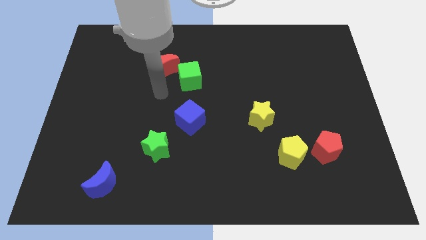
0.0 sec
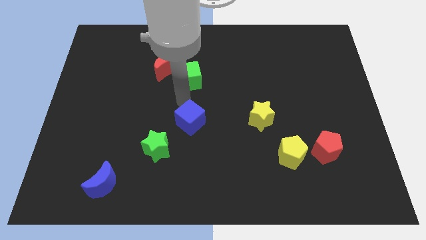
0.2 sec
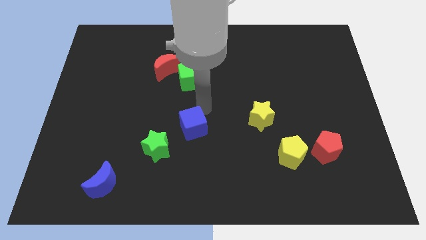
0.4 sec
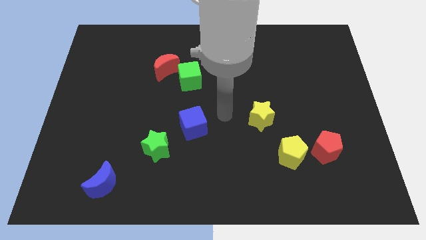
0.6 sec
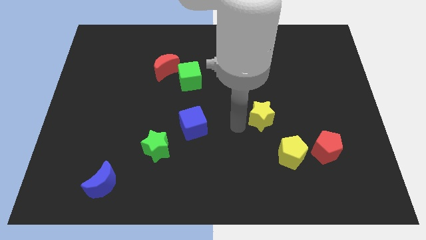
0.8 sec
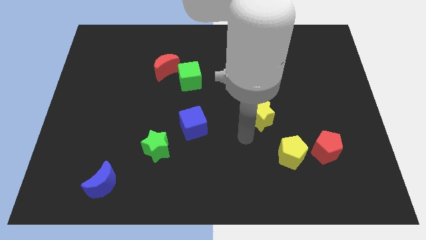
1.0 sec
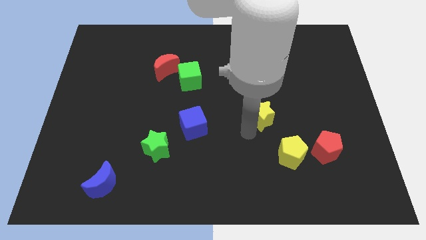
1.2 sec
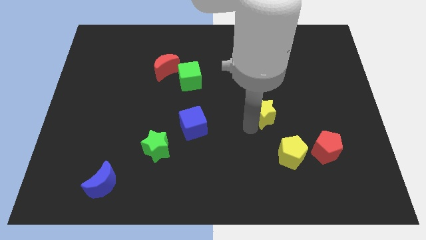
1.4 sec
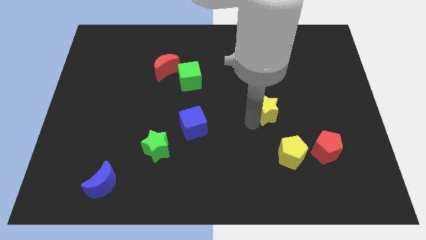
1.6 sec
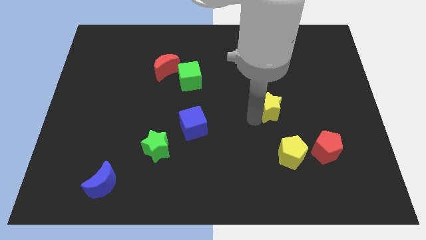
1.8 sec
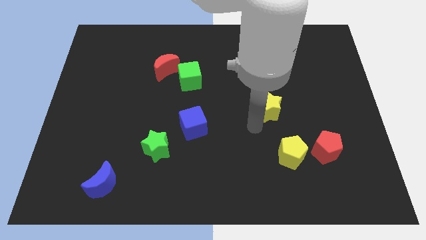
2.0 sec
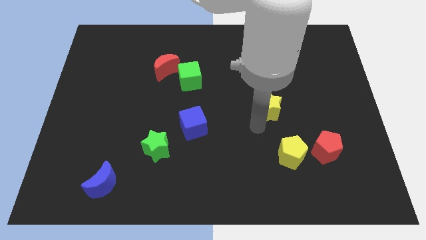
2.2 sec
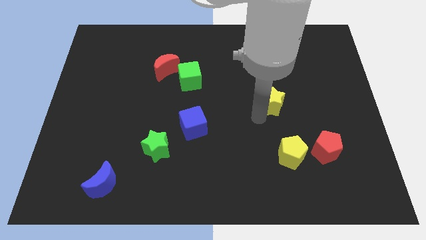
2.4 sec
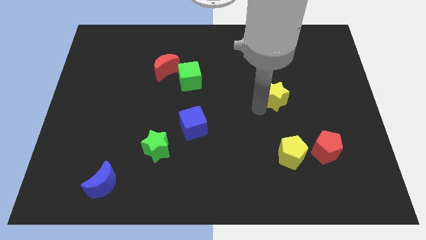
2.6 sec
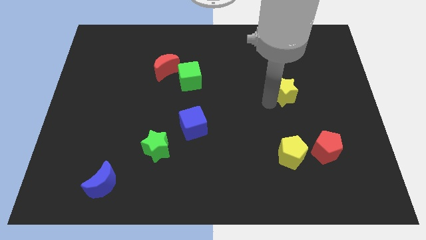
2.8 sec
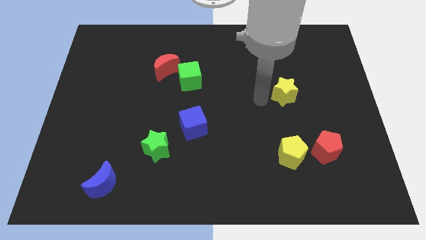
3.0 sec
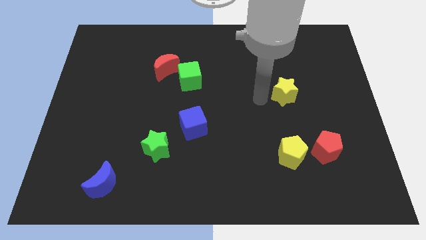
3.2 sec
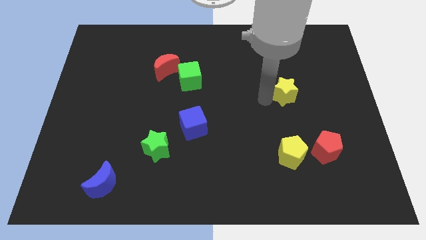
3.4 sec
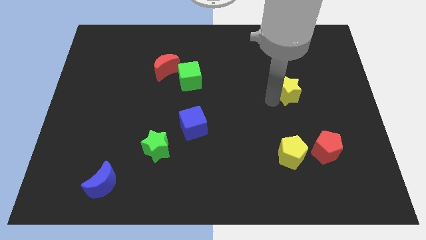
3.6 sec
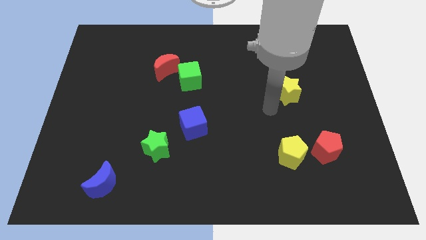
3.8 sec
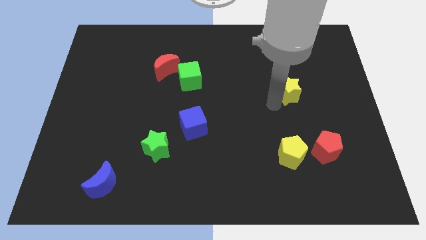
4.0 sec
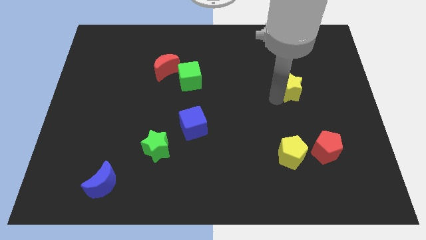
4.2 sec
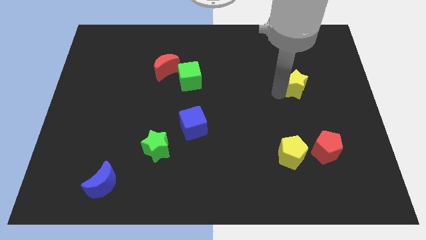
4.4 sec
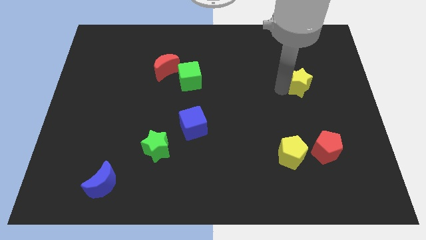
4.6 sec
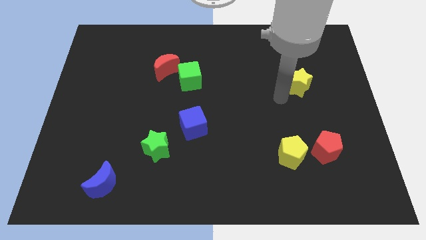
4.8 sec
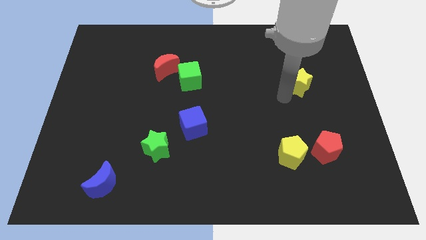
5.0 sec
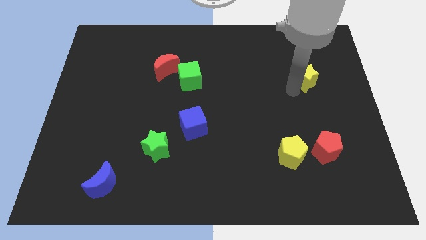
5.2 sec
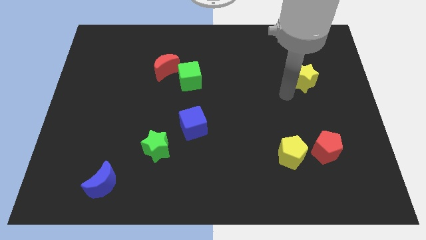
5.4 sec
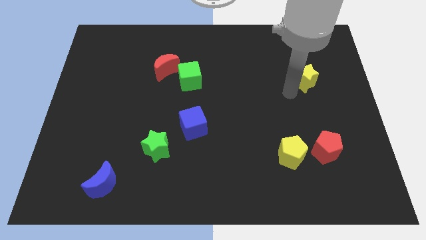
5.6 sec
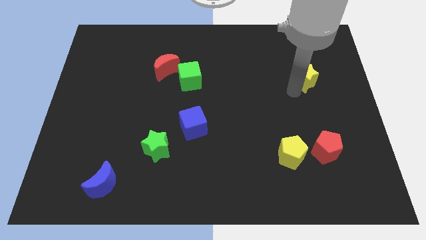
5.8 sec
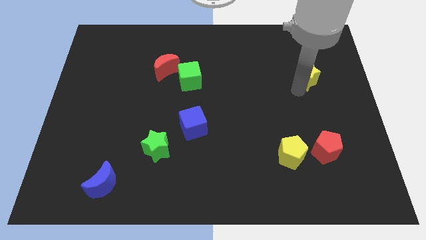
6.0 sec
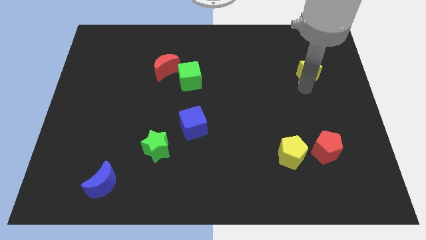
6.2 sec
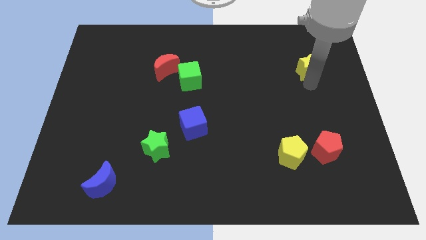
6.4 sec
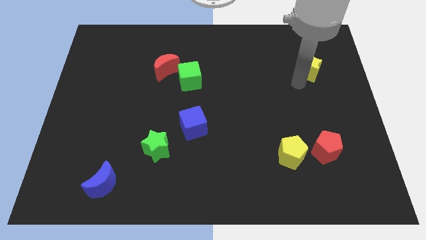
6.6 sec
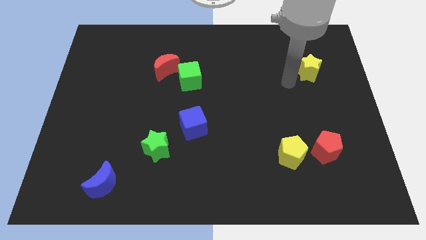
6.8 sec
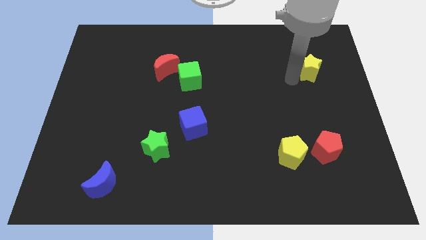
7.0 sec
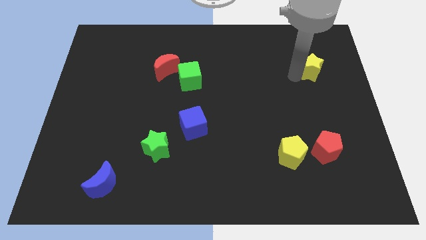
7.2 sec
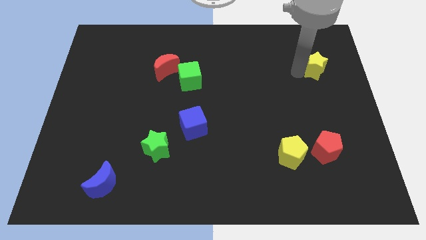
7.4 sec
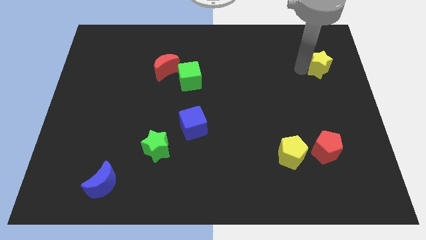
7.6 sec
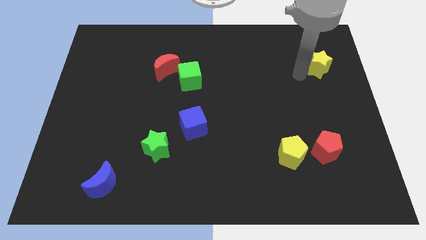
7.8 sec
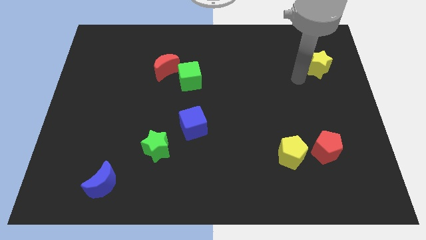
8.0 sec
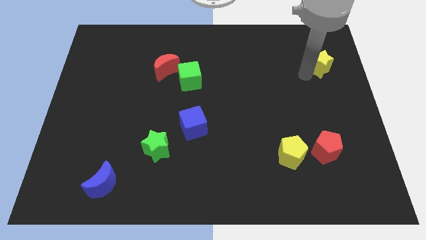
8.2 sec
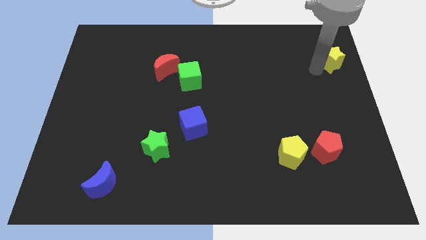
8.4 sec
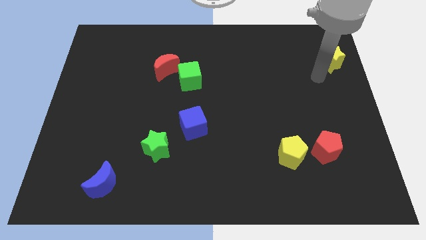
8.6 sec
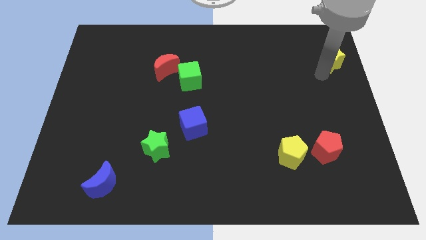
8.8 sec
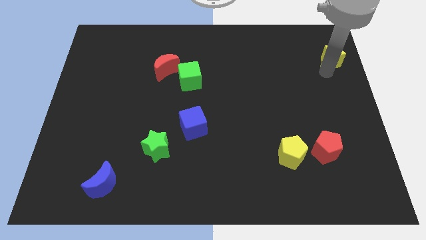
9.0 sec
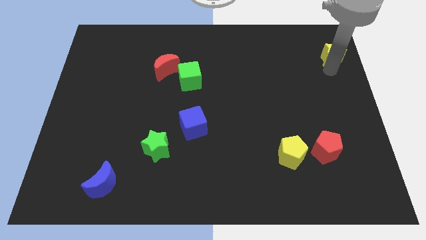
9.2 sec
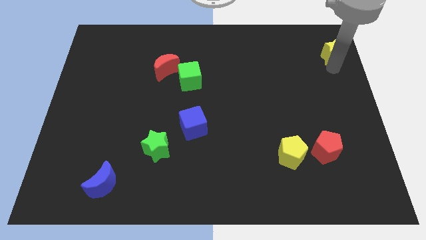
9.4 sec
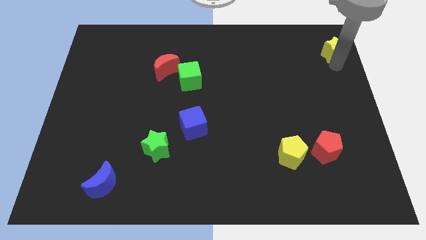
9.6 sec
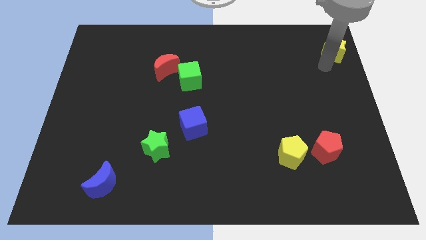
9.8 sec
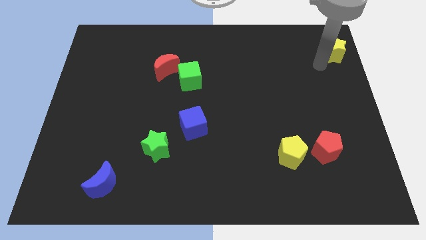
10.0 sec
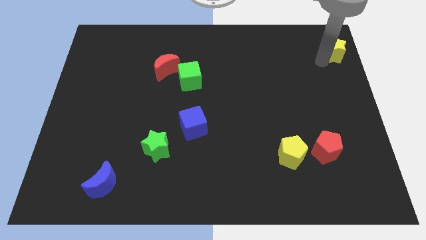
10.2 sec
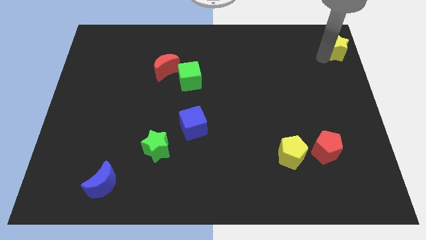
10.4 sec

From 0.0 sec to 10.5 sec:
move the yellow star to the top right of the board

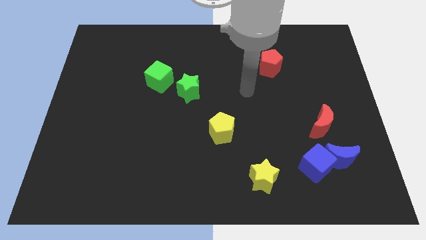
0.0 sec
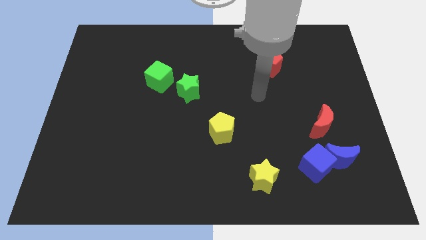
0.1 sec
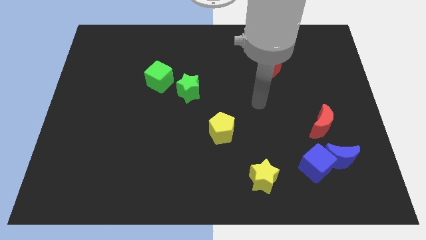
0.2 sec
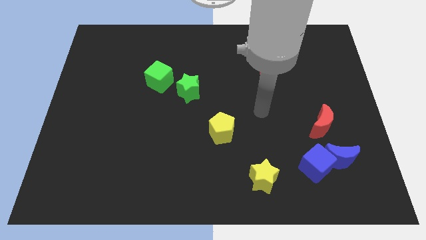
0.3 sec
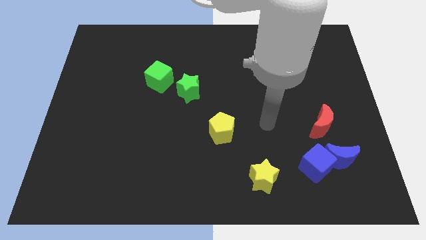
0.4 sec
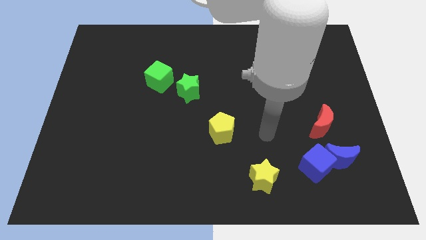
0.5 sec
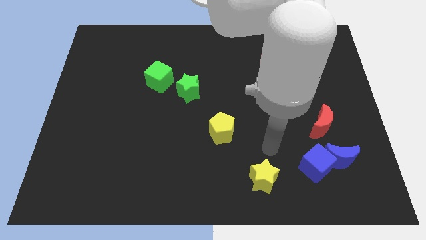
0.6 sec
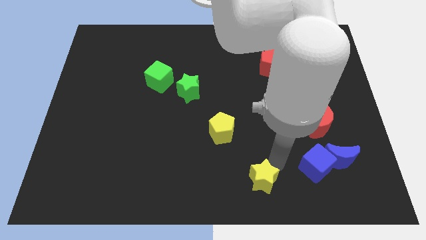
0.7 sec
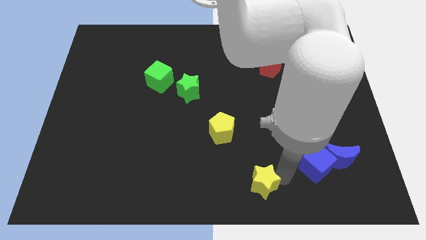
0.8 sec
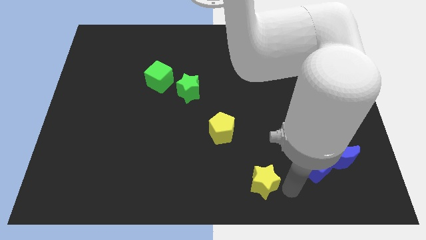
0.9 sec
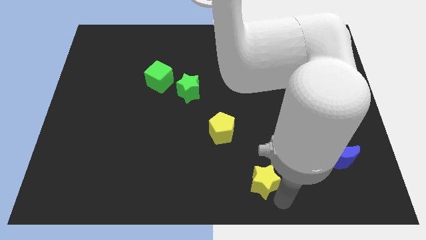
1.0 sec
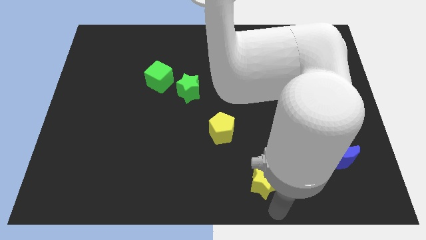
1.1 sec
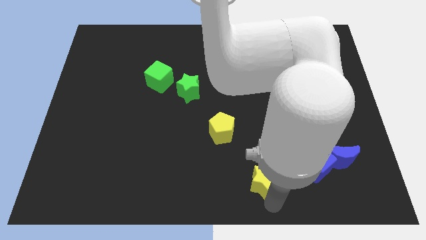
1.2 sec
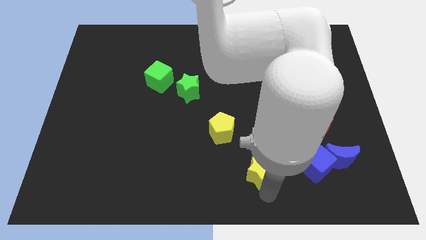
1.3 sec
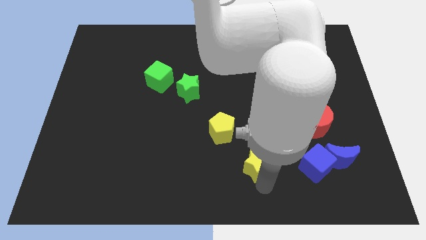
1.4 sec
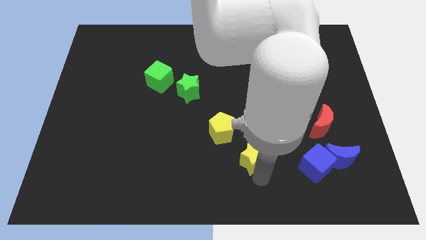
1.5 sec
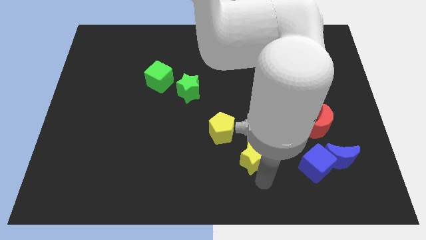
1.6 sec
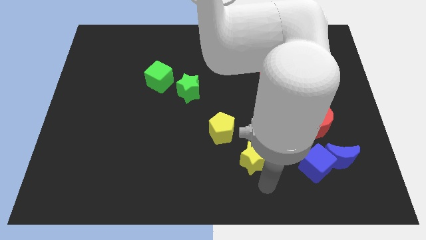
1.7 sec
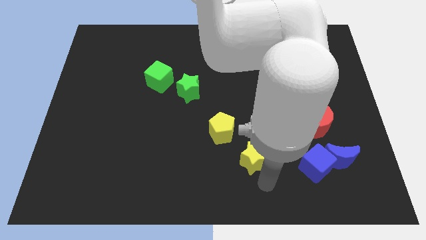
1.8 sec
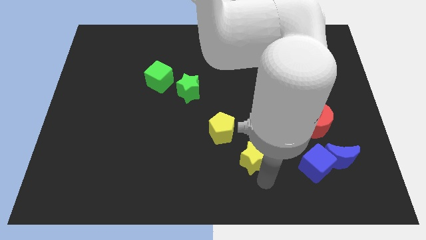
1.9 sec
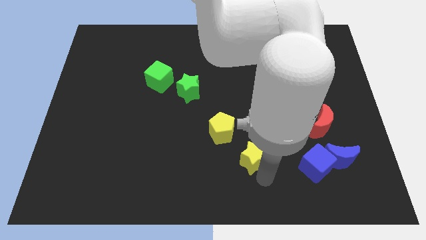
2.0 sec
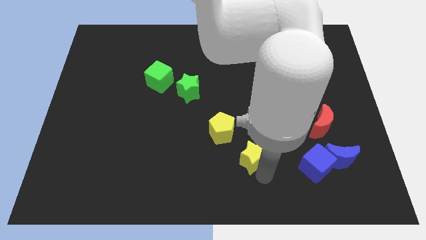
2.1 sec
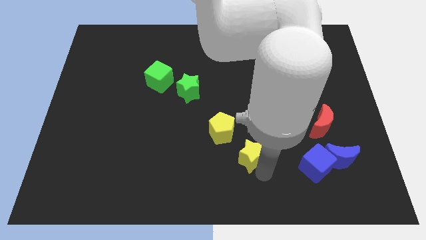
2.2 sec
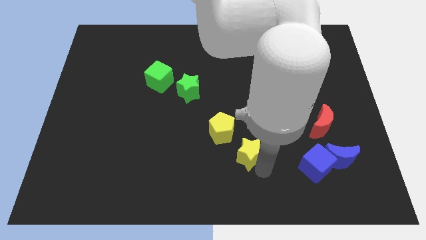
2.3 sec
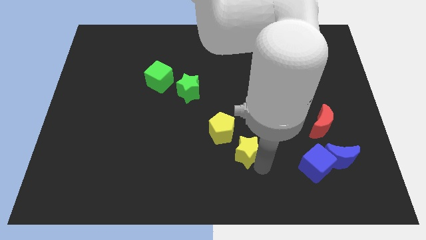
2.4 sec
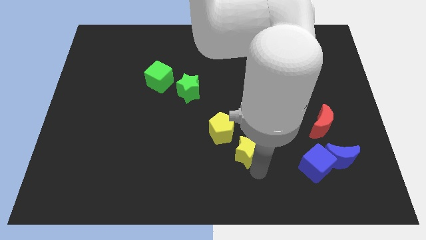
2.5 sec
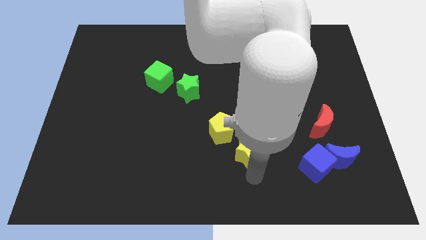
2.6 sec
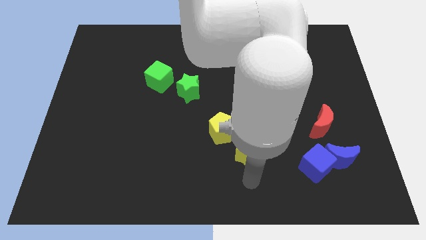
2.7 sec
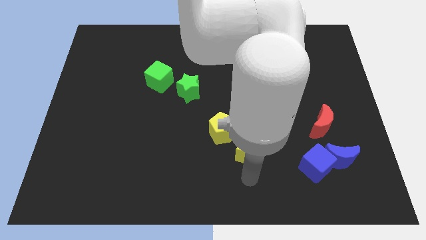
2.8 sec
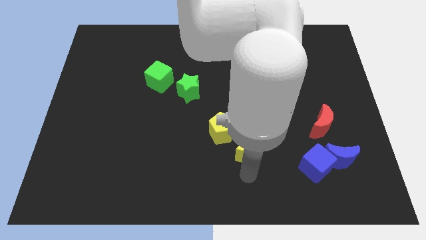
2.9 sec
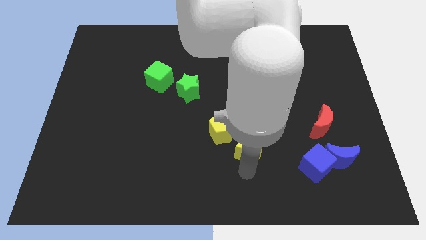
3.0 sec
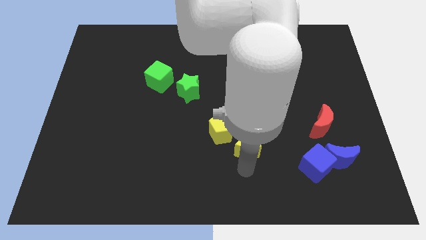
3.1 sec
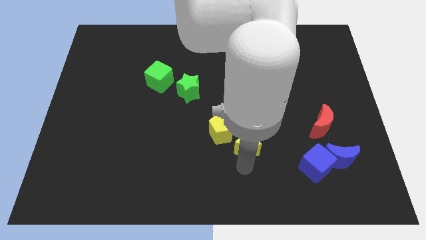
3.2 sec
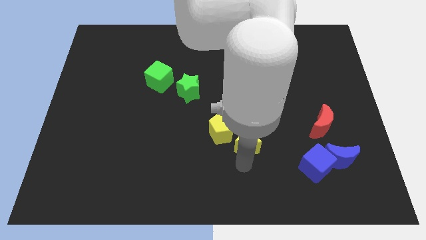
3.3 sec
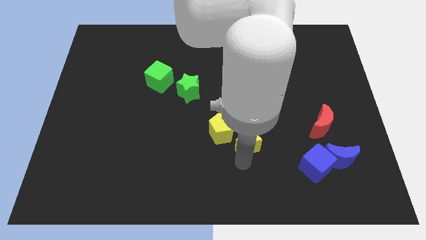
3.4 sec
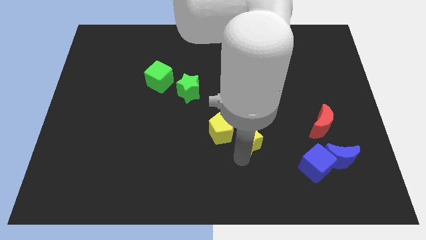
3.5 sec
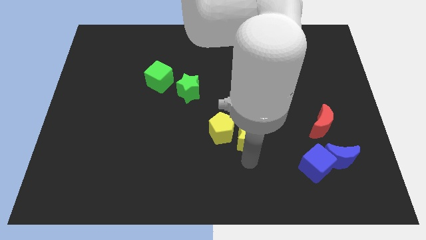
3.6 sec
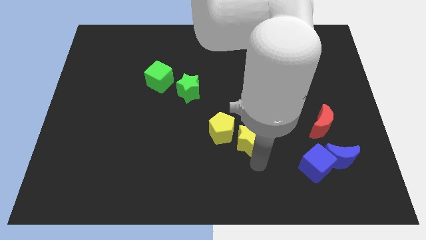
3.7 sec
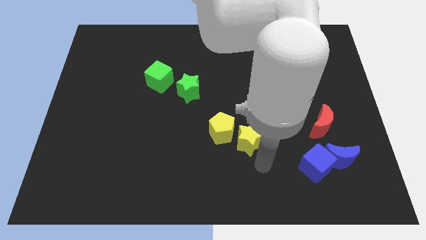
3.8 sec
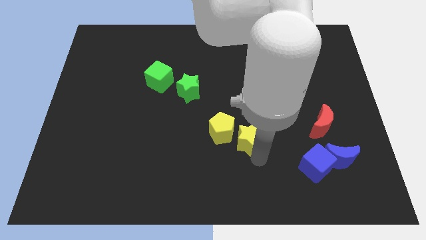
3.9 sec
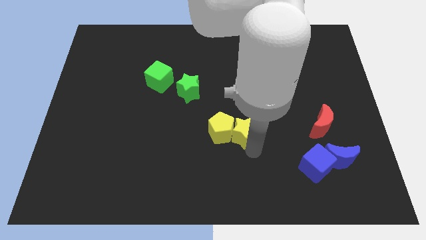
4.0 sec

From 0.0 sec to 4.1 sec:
move the yellow star to the center
